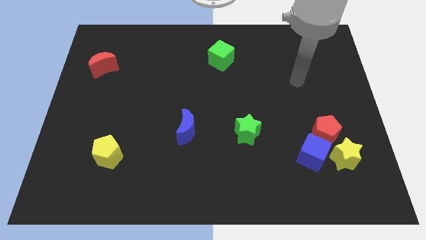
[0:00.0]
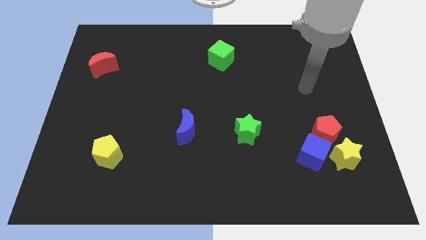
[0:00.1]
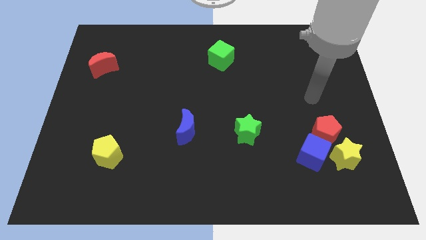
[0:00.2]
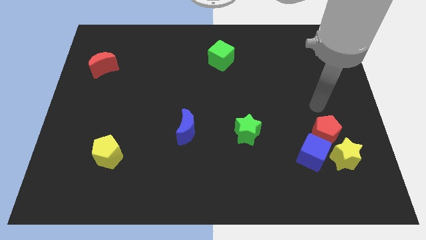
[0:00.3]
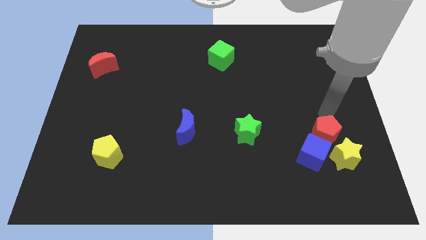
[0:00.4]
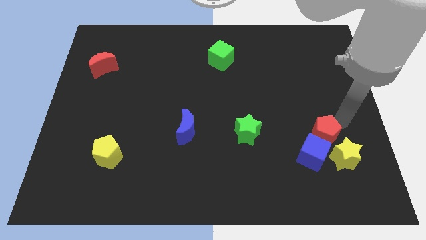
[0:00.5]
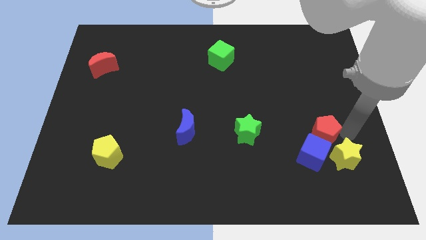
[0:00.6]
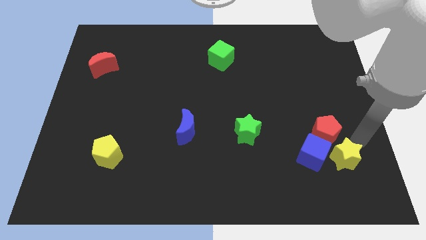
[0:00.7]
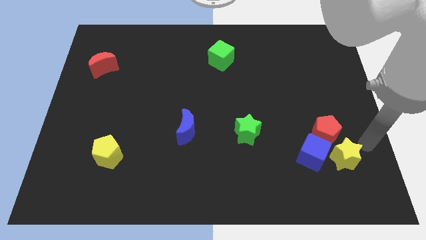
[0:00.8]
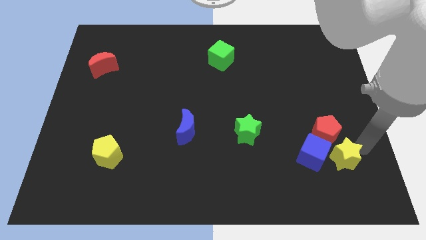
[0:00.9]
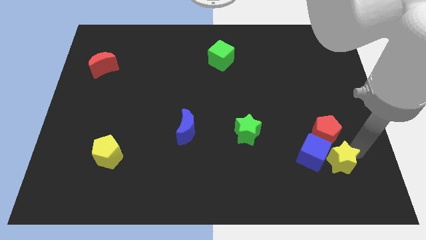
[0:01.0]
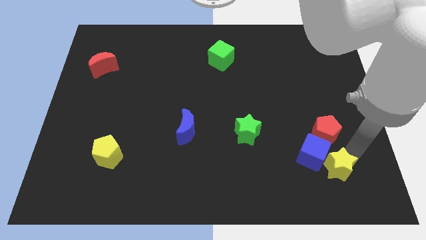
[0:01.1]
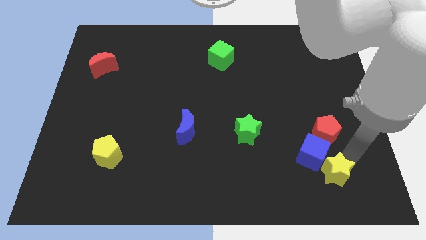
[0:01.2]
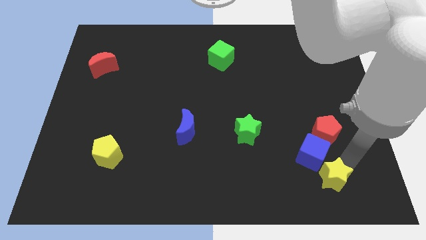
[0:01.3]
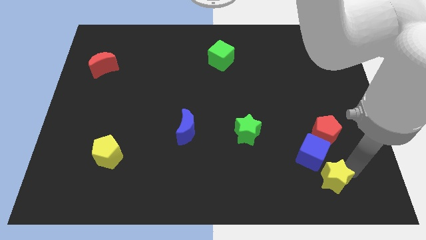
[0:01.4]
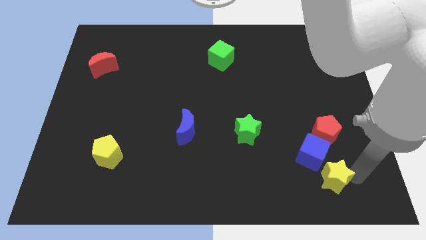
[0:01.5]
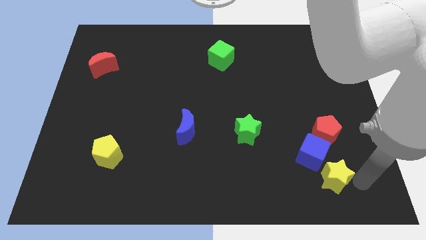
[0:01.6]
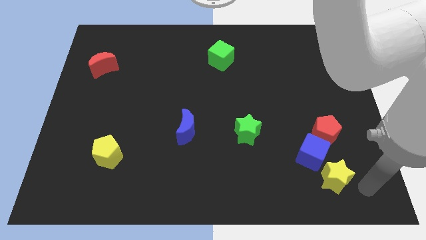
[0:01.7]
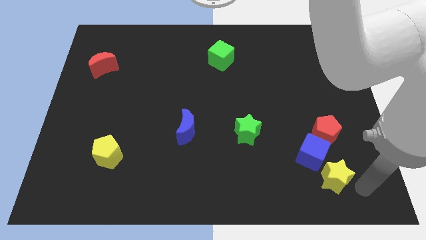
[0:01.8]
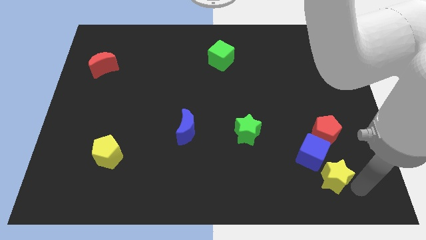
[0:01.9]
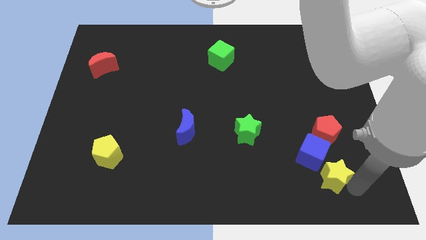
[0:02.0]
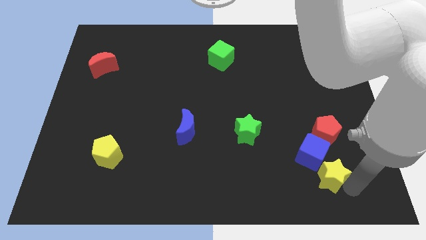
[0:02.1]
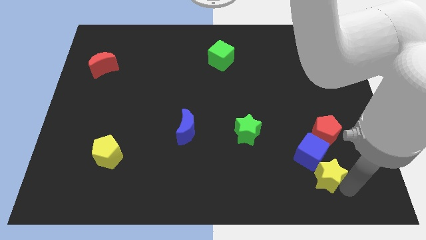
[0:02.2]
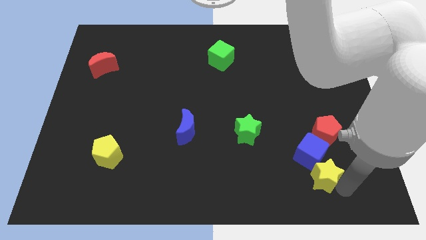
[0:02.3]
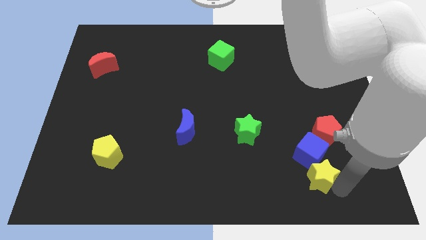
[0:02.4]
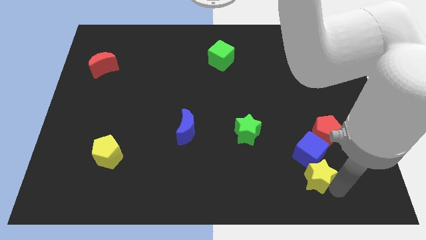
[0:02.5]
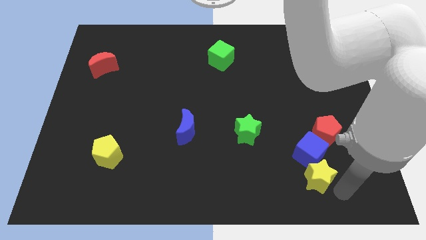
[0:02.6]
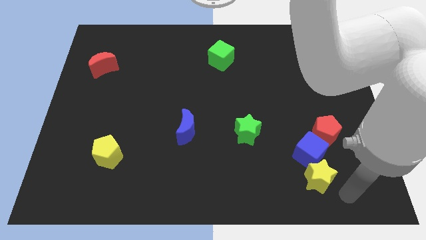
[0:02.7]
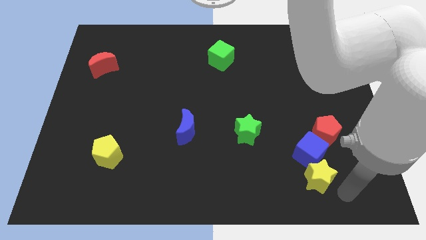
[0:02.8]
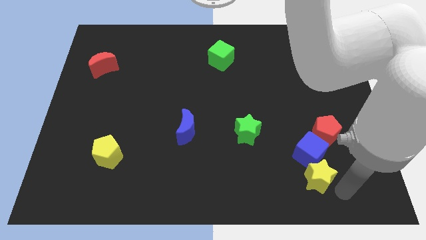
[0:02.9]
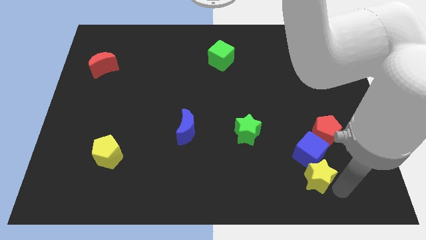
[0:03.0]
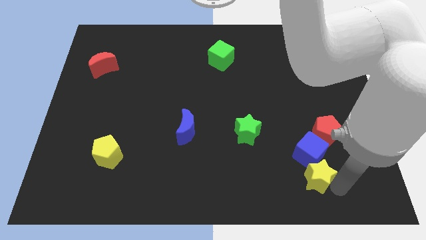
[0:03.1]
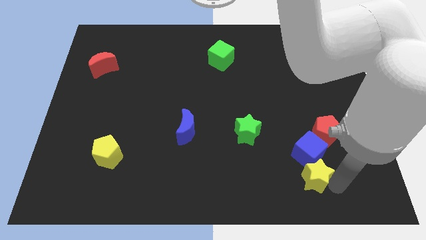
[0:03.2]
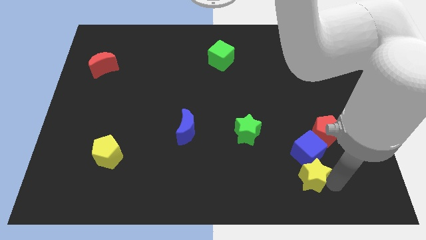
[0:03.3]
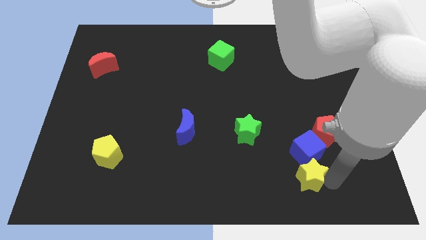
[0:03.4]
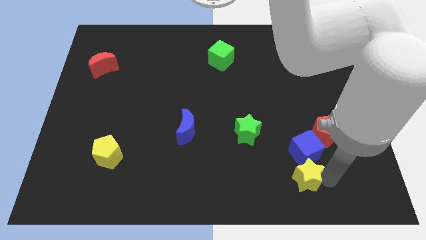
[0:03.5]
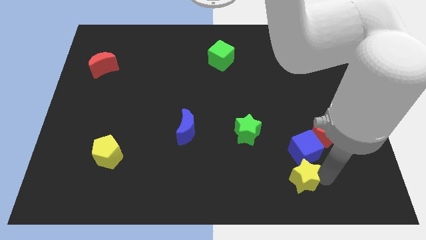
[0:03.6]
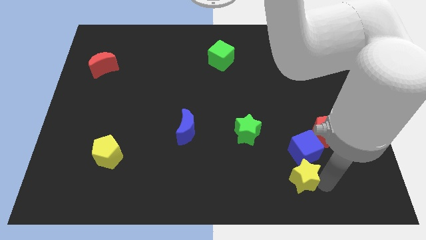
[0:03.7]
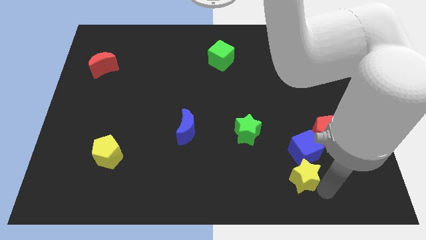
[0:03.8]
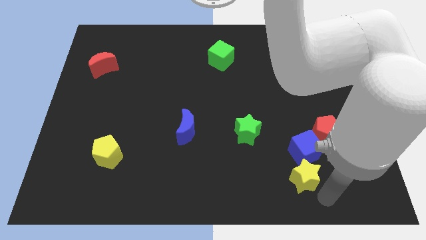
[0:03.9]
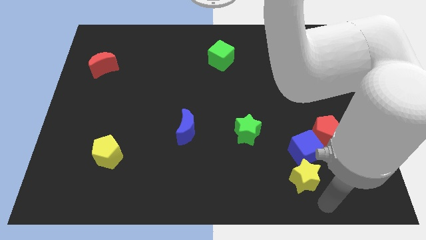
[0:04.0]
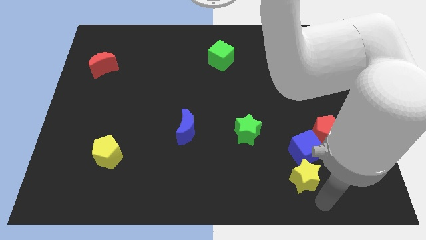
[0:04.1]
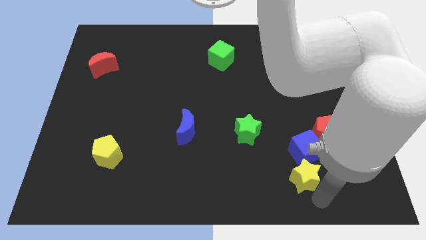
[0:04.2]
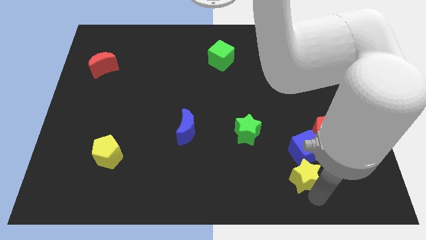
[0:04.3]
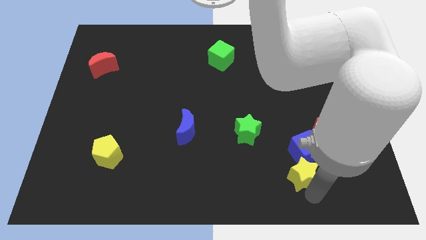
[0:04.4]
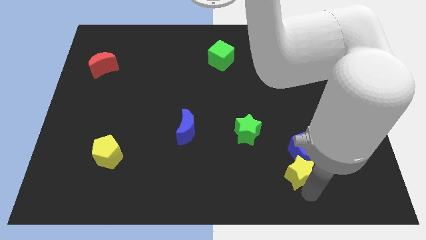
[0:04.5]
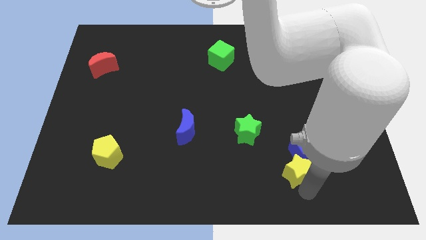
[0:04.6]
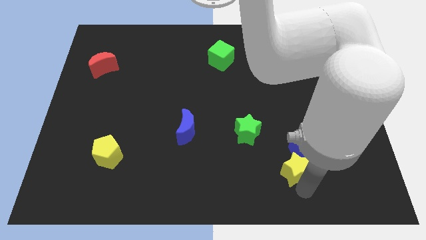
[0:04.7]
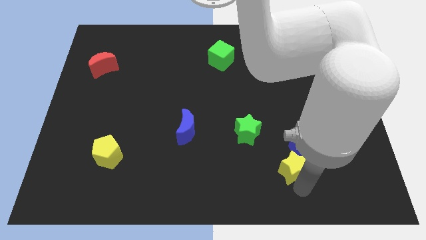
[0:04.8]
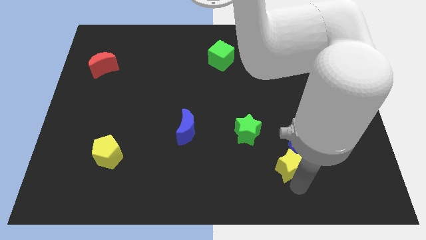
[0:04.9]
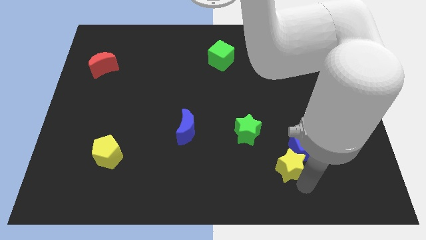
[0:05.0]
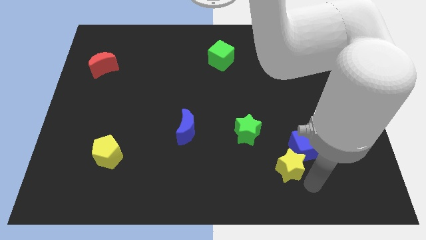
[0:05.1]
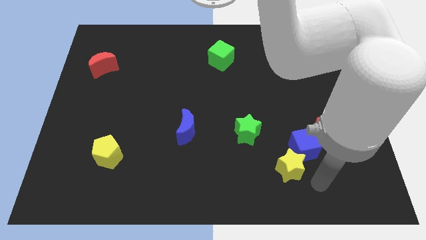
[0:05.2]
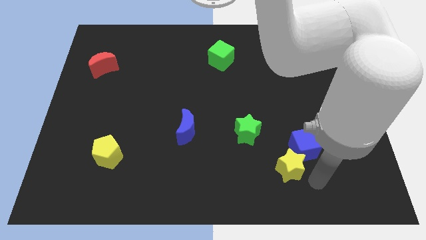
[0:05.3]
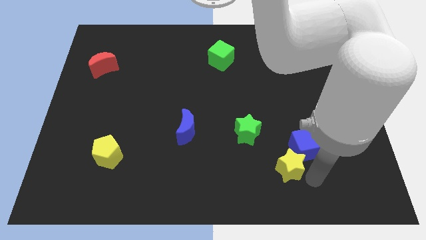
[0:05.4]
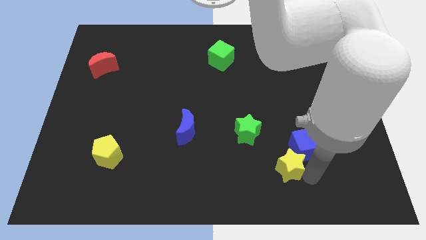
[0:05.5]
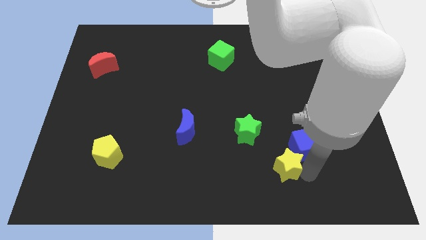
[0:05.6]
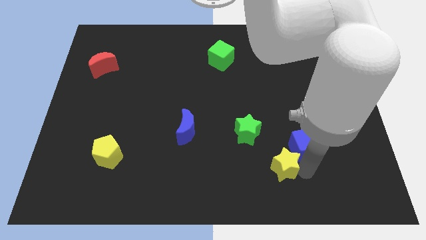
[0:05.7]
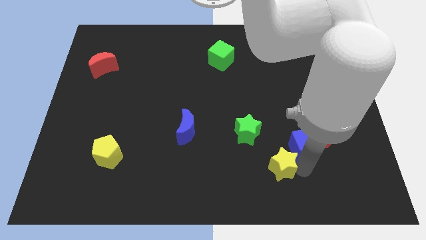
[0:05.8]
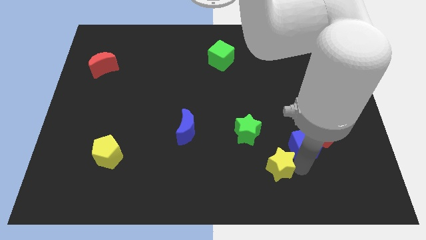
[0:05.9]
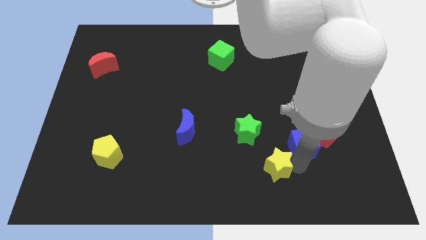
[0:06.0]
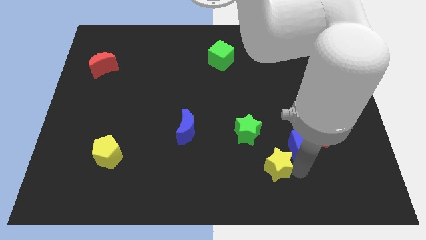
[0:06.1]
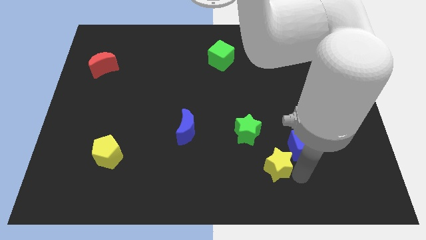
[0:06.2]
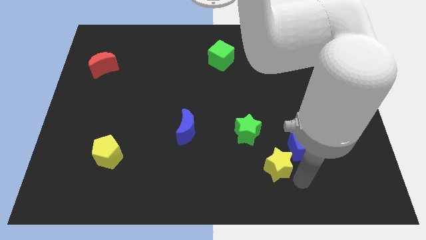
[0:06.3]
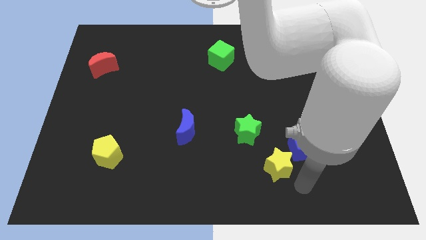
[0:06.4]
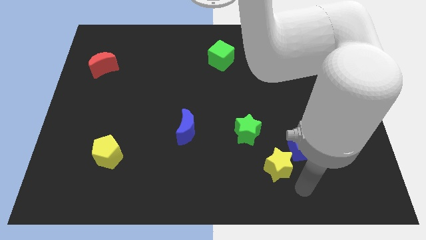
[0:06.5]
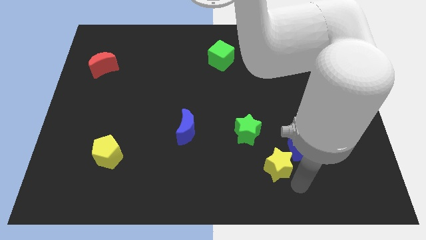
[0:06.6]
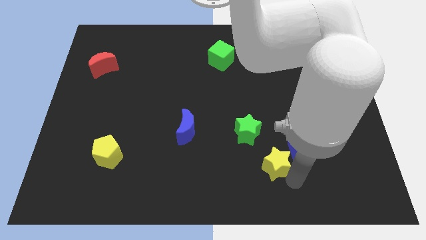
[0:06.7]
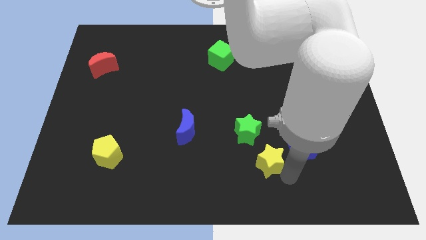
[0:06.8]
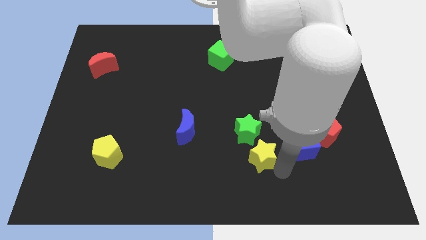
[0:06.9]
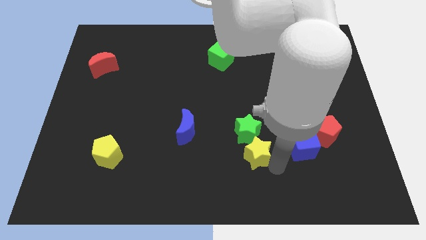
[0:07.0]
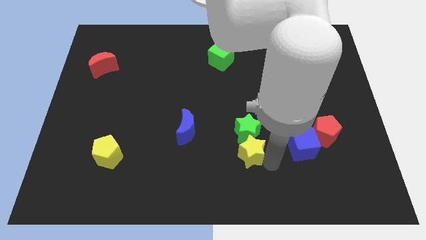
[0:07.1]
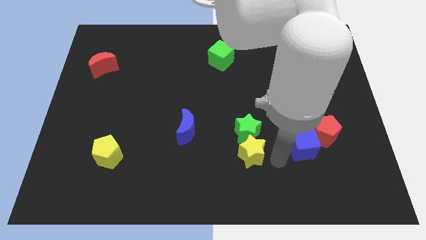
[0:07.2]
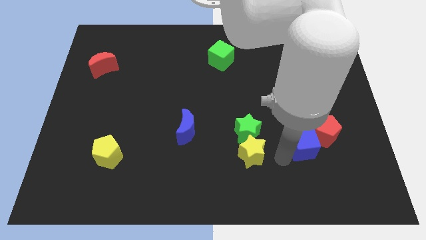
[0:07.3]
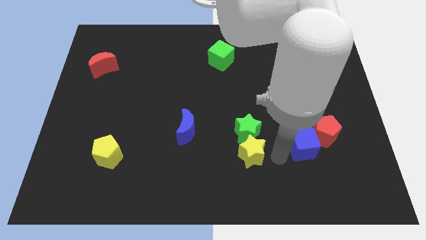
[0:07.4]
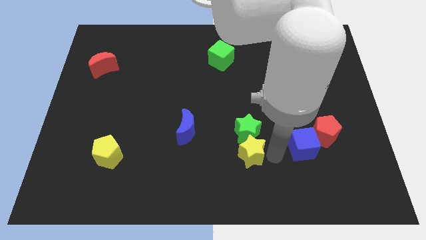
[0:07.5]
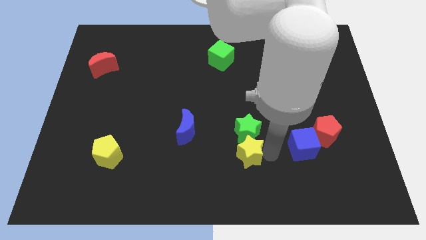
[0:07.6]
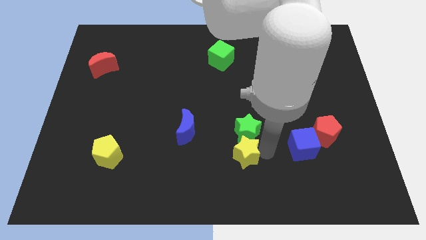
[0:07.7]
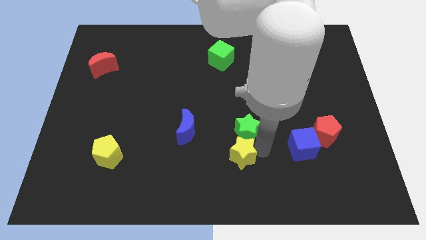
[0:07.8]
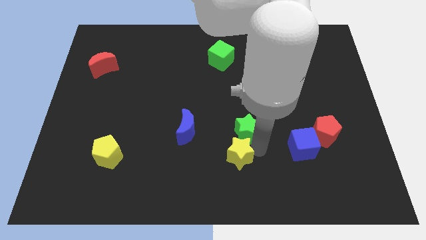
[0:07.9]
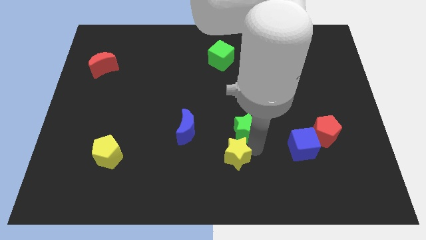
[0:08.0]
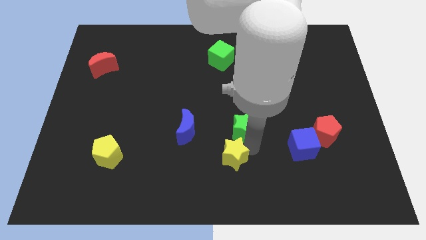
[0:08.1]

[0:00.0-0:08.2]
put the yellow star diagonally down and to the right of the blue moon
